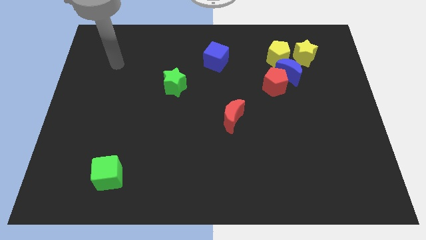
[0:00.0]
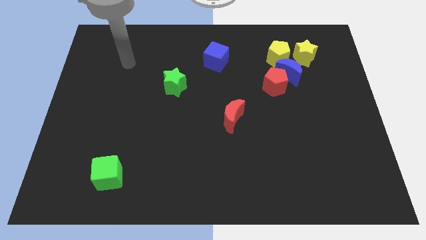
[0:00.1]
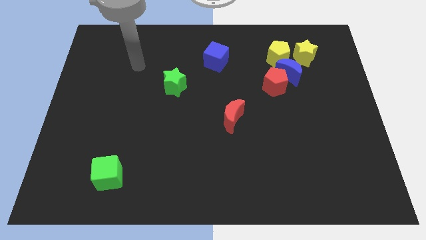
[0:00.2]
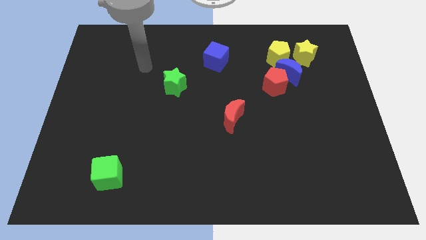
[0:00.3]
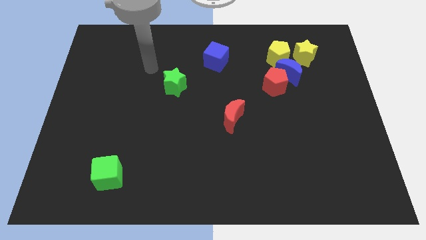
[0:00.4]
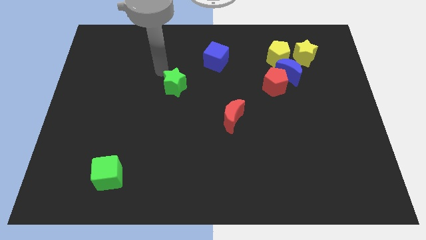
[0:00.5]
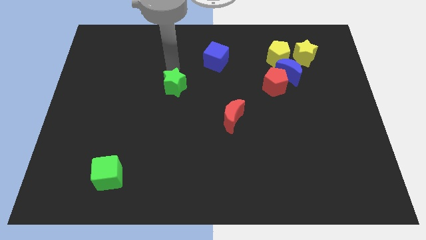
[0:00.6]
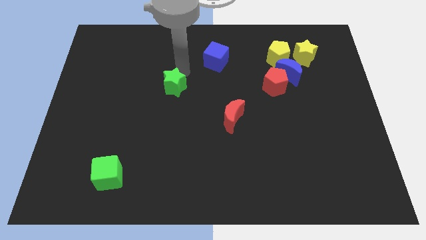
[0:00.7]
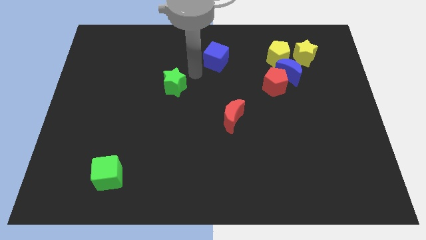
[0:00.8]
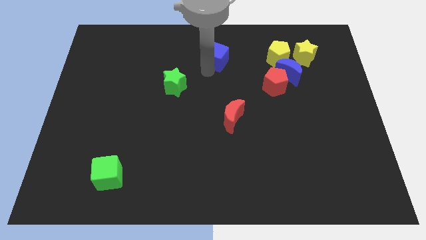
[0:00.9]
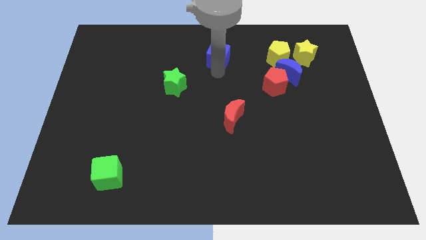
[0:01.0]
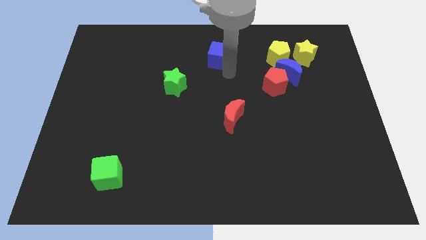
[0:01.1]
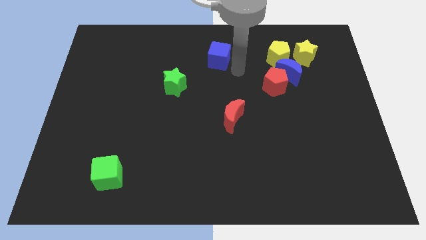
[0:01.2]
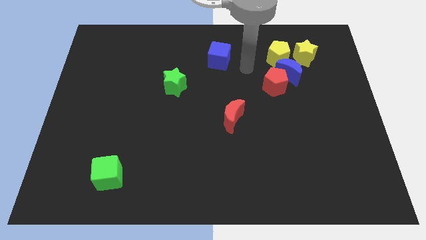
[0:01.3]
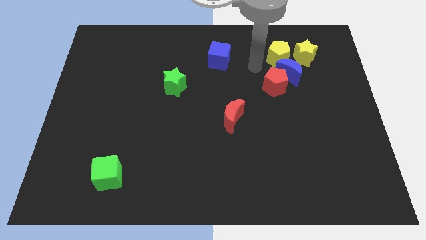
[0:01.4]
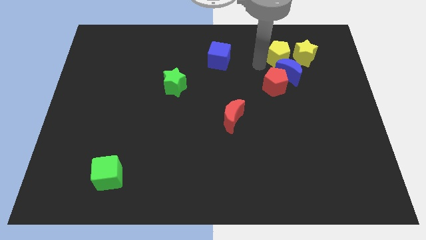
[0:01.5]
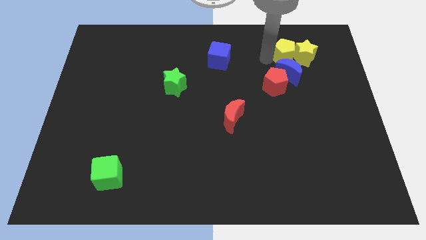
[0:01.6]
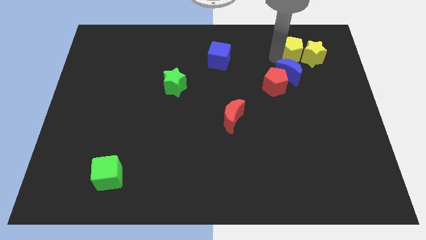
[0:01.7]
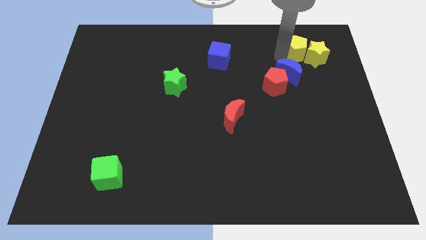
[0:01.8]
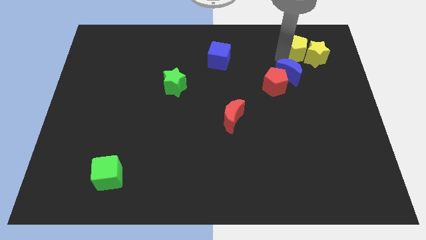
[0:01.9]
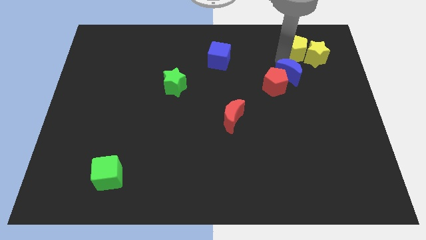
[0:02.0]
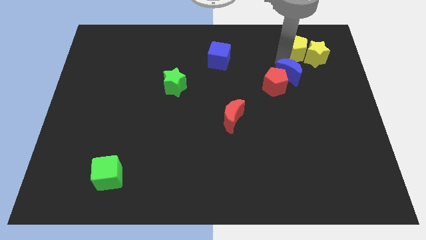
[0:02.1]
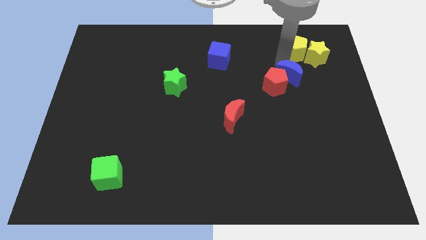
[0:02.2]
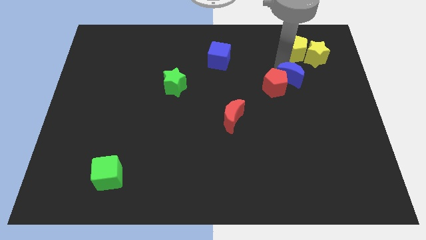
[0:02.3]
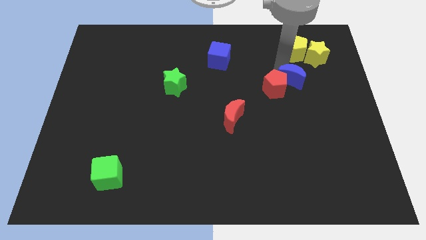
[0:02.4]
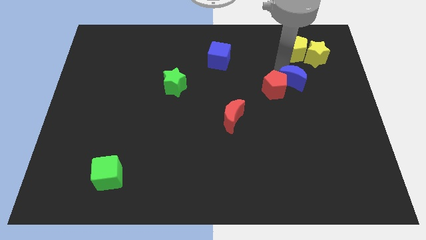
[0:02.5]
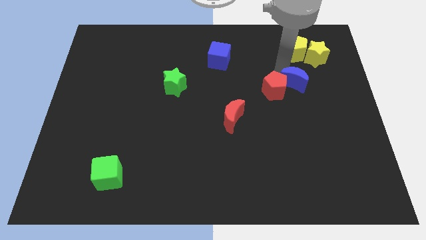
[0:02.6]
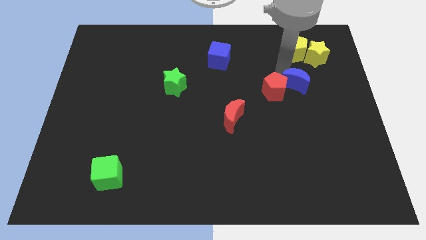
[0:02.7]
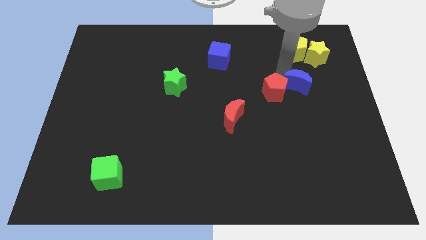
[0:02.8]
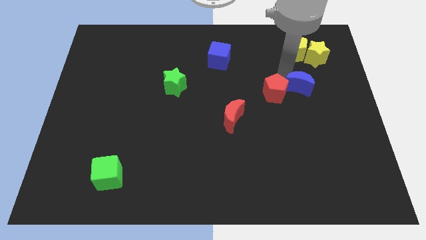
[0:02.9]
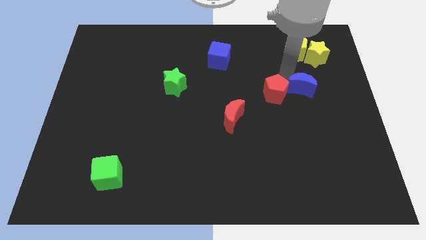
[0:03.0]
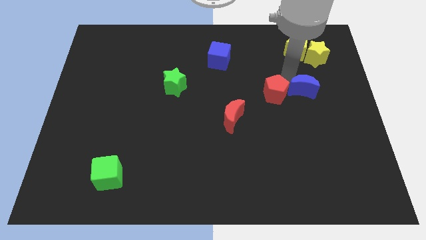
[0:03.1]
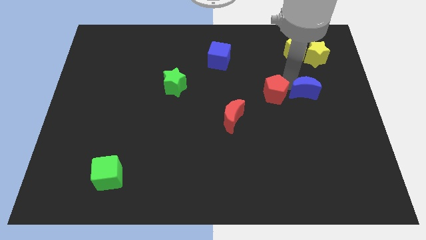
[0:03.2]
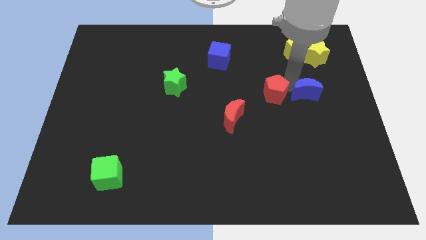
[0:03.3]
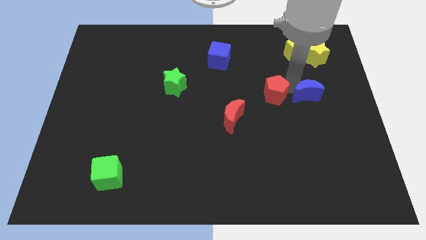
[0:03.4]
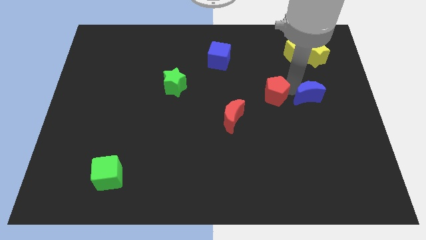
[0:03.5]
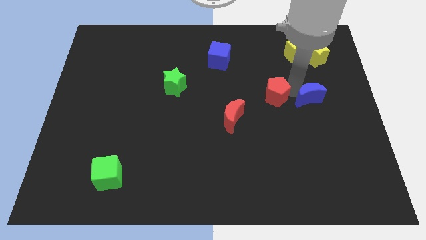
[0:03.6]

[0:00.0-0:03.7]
move the blue moon away from the red pentagon, yellow pentagon, and yellow star

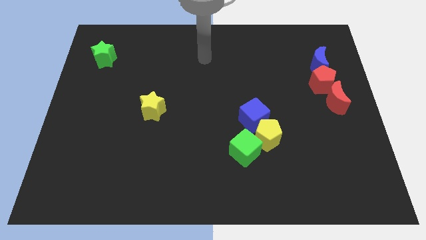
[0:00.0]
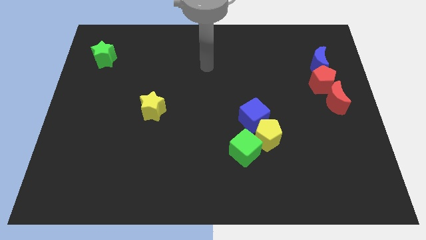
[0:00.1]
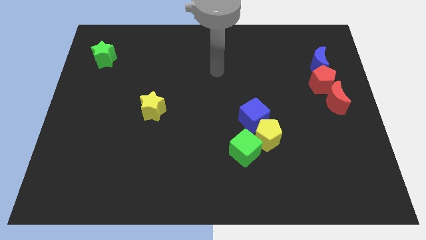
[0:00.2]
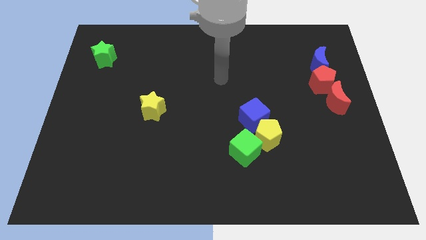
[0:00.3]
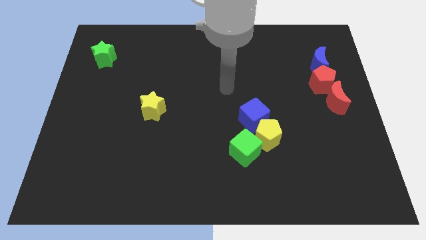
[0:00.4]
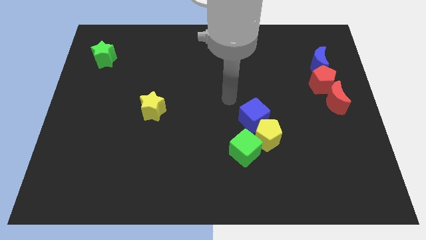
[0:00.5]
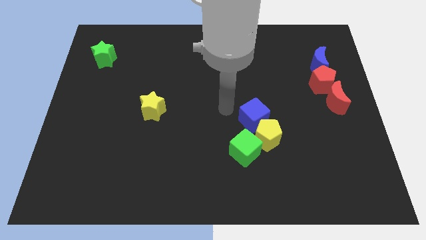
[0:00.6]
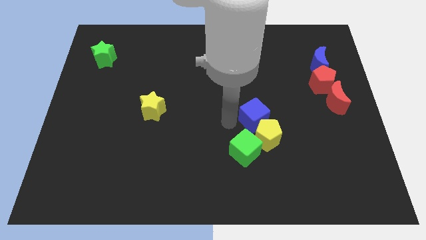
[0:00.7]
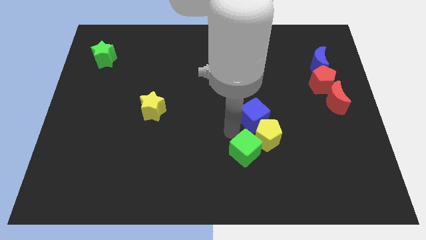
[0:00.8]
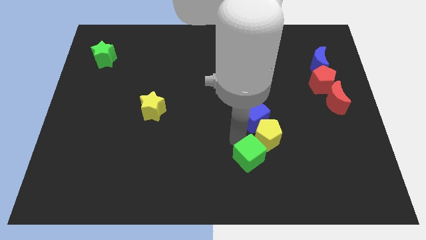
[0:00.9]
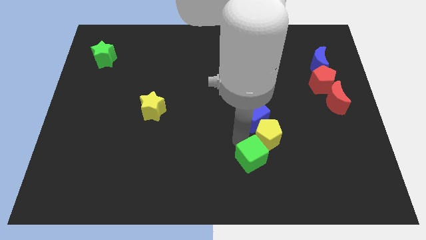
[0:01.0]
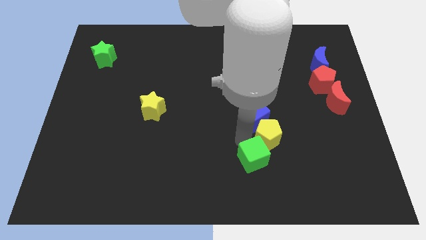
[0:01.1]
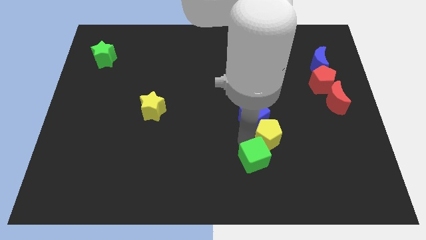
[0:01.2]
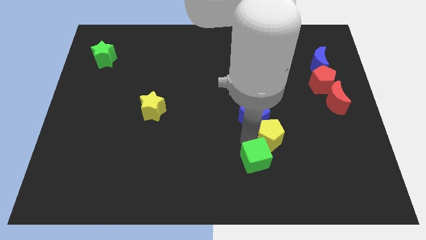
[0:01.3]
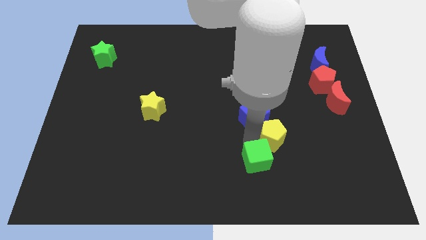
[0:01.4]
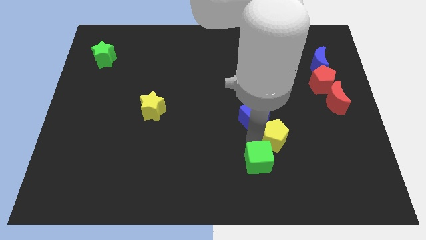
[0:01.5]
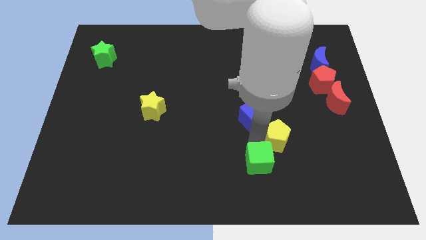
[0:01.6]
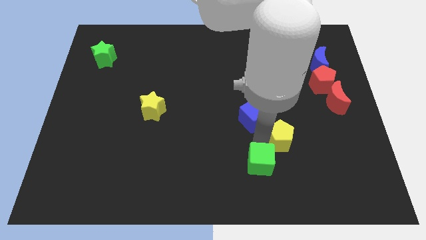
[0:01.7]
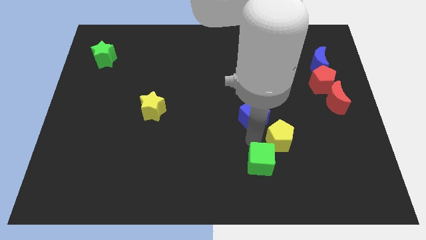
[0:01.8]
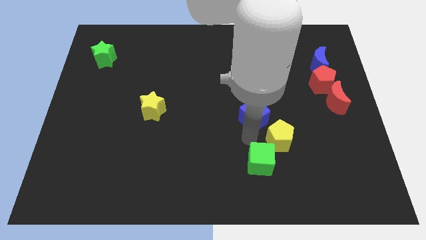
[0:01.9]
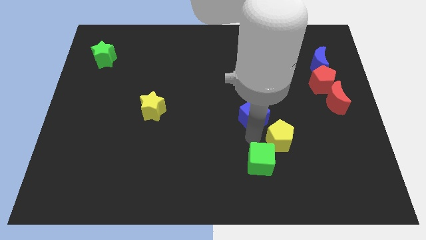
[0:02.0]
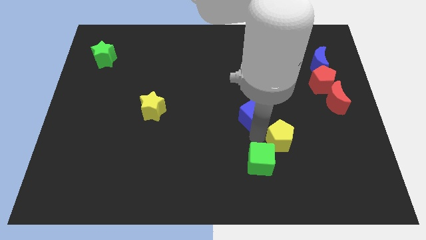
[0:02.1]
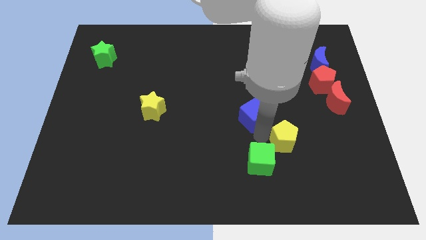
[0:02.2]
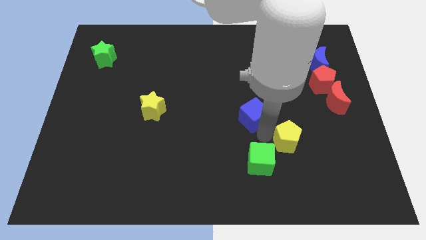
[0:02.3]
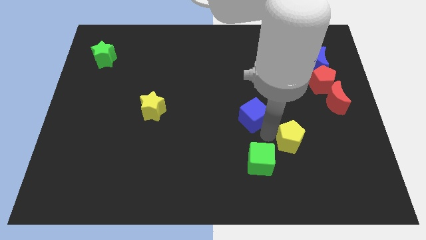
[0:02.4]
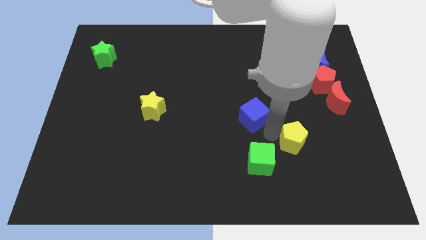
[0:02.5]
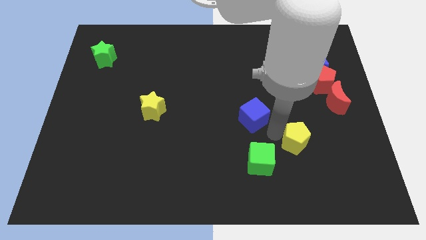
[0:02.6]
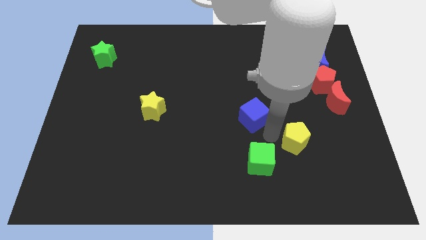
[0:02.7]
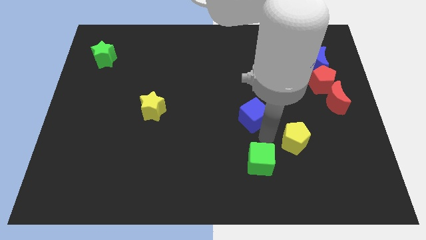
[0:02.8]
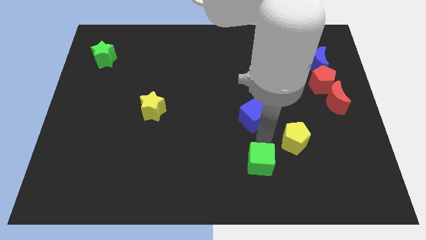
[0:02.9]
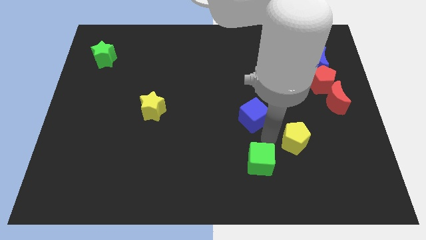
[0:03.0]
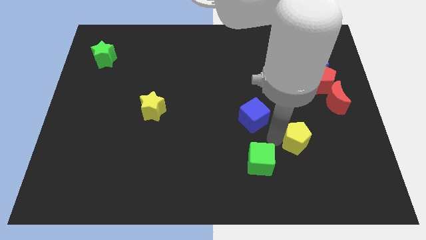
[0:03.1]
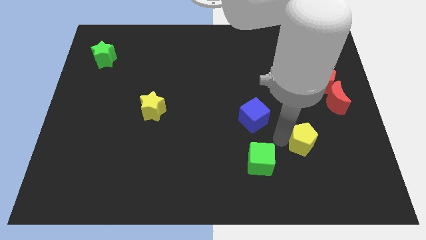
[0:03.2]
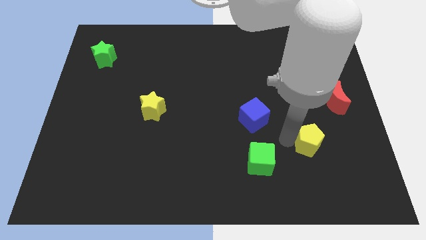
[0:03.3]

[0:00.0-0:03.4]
separate the yellow pentagon from the blue cube and green cube

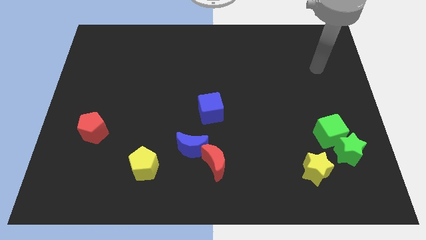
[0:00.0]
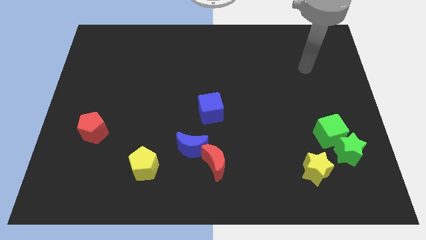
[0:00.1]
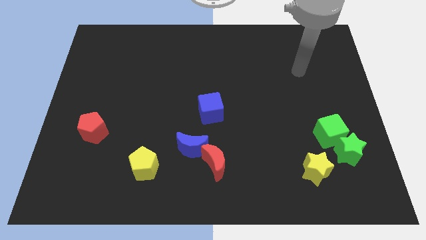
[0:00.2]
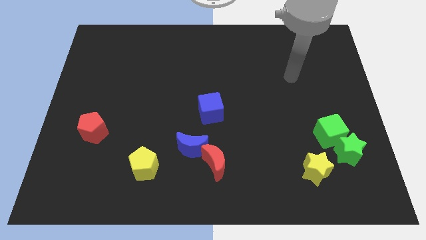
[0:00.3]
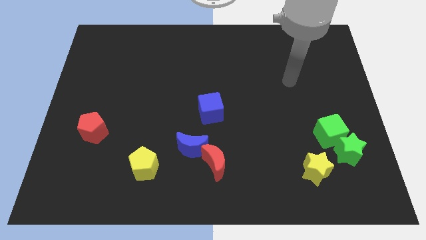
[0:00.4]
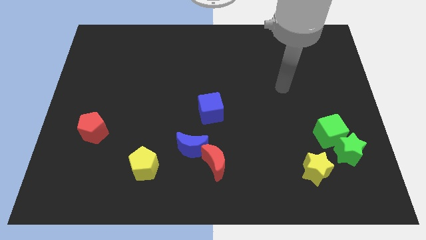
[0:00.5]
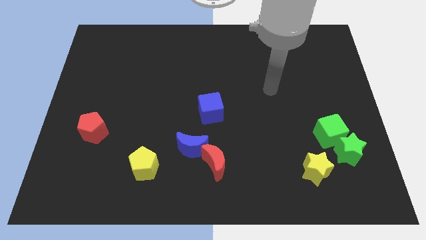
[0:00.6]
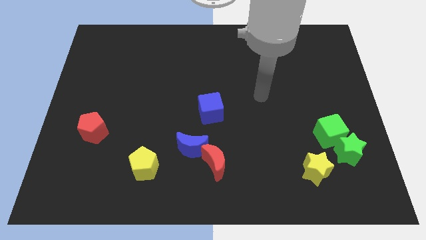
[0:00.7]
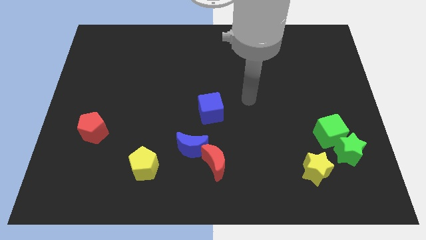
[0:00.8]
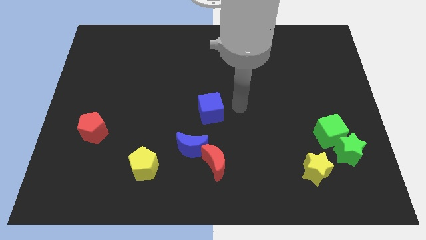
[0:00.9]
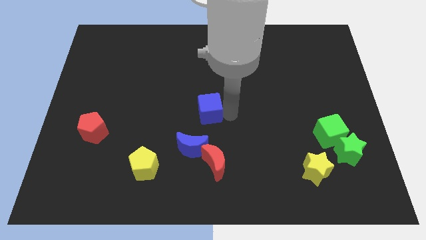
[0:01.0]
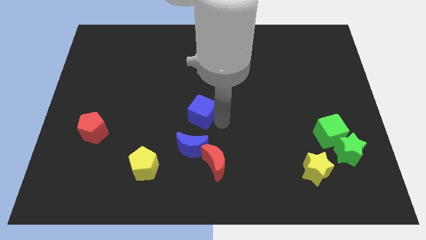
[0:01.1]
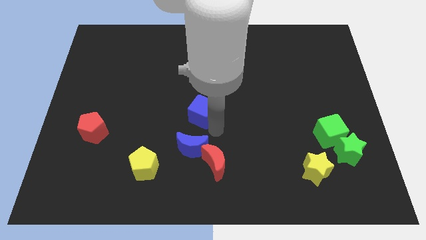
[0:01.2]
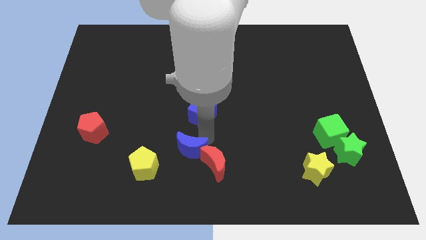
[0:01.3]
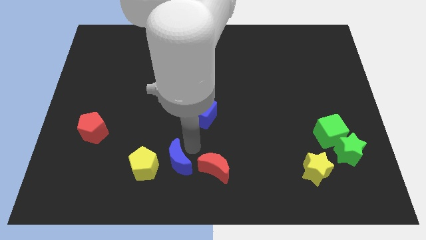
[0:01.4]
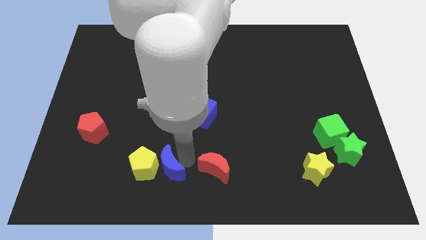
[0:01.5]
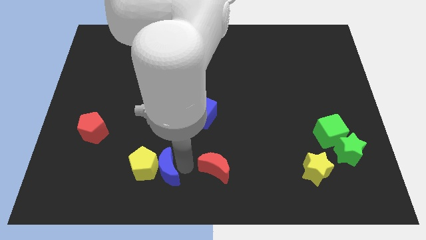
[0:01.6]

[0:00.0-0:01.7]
separate the red moon from the blue moon

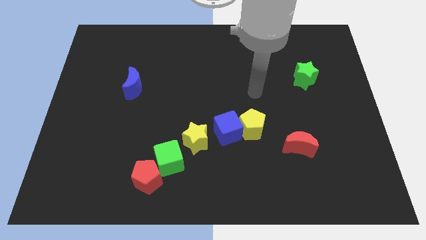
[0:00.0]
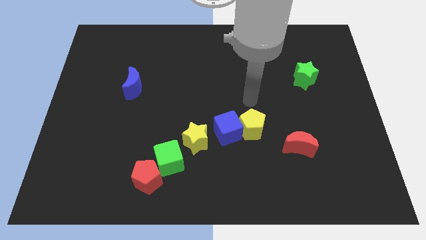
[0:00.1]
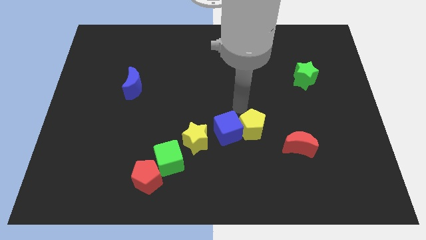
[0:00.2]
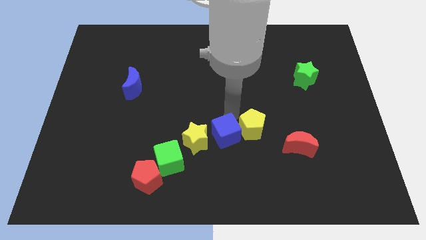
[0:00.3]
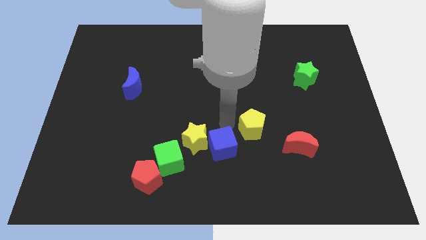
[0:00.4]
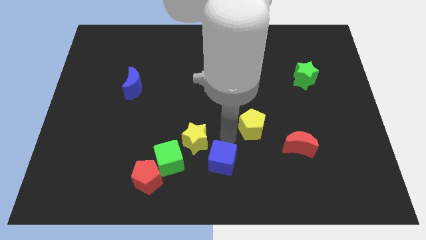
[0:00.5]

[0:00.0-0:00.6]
pull the yellow pentagon apart from the blue cube
